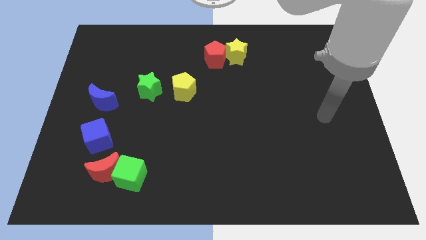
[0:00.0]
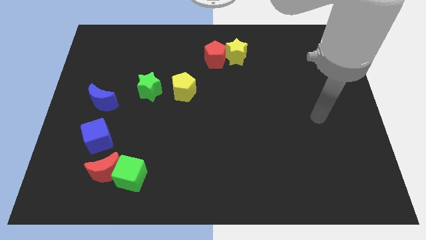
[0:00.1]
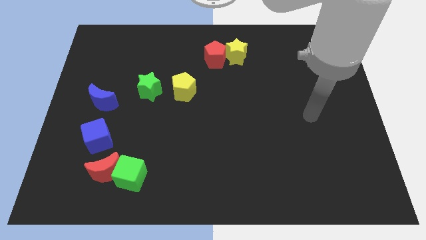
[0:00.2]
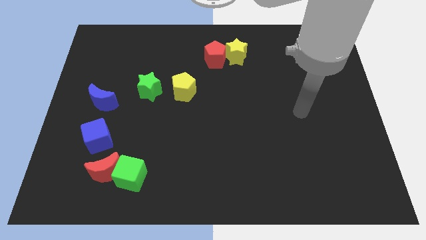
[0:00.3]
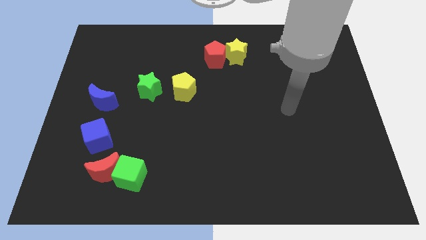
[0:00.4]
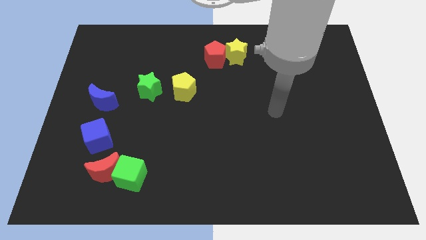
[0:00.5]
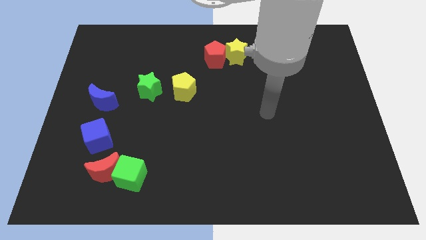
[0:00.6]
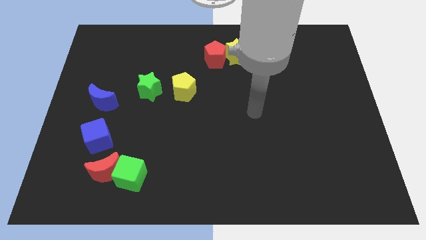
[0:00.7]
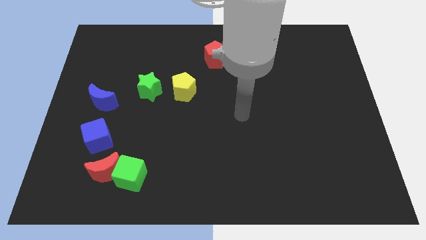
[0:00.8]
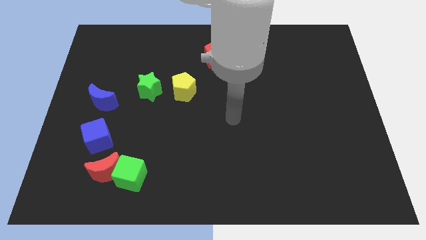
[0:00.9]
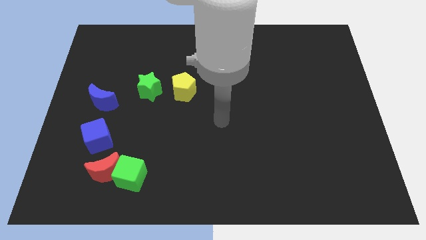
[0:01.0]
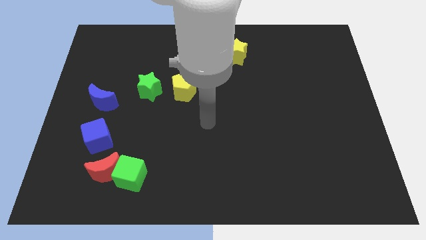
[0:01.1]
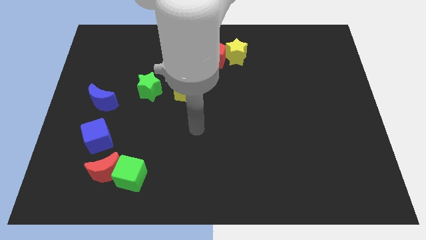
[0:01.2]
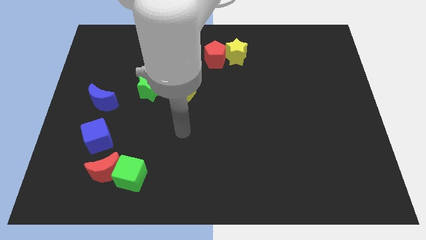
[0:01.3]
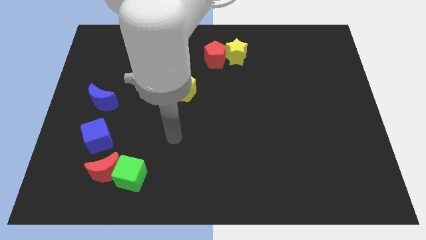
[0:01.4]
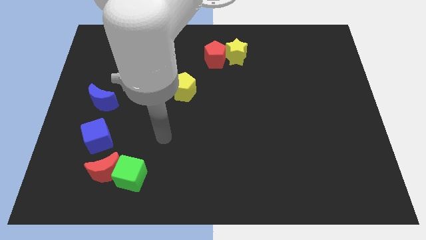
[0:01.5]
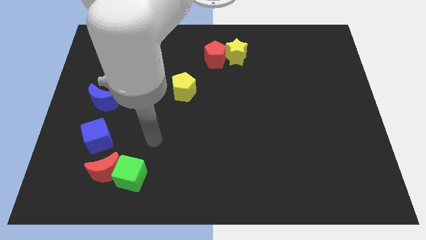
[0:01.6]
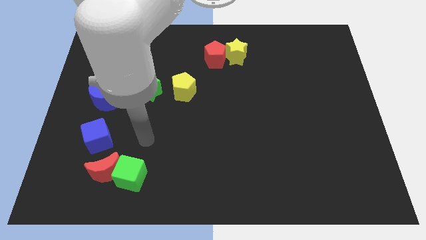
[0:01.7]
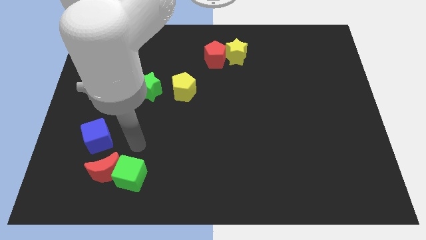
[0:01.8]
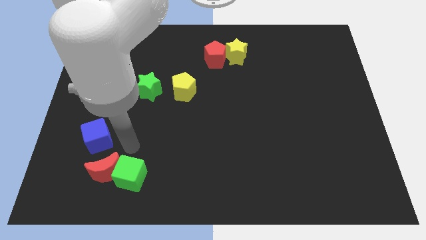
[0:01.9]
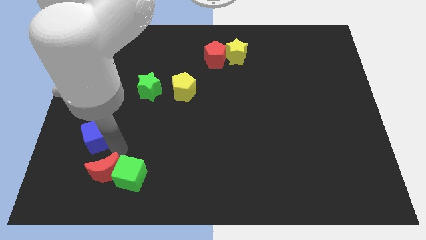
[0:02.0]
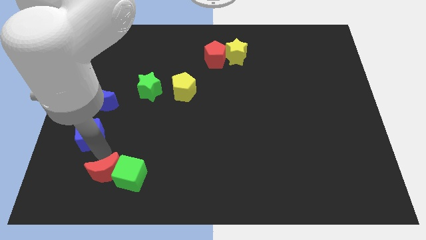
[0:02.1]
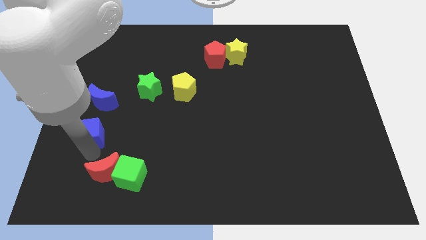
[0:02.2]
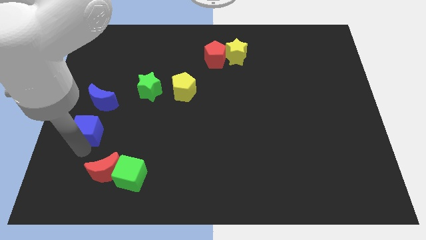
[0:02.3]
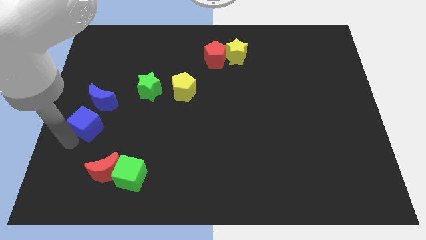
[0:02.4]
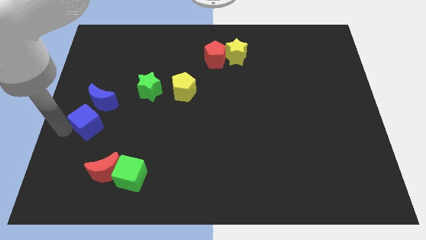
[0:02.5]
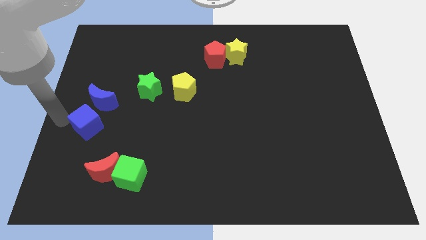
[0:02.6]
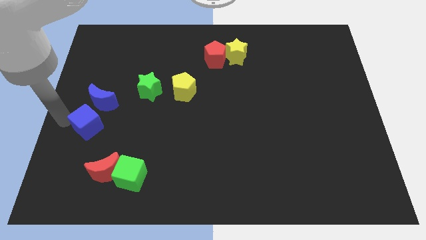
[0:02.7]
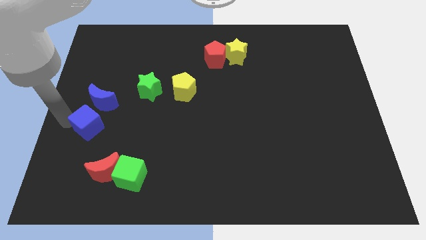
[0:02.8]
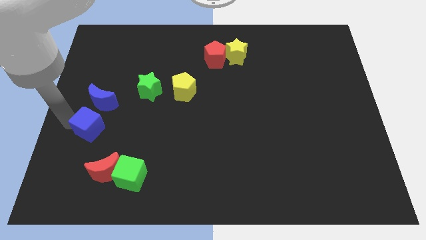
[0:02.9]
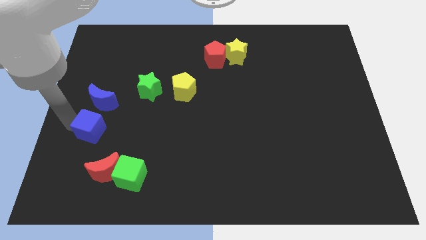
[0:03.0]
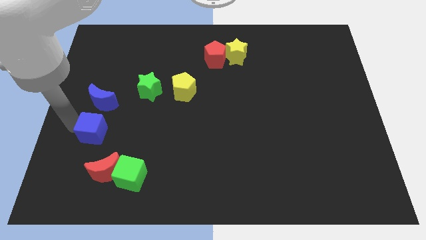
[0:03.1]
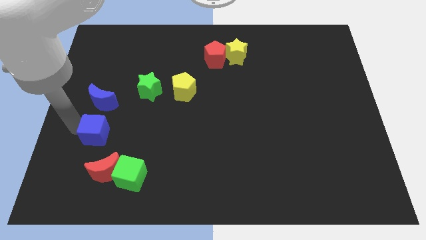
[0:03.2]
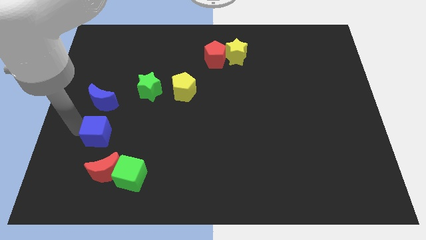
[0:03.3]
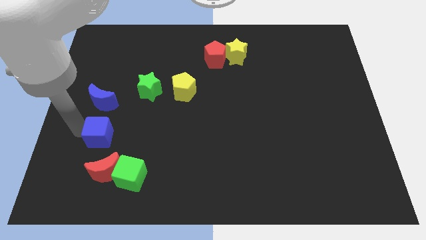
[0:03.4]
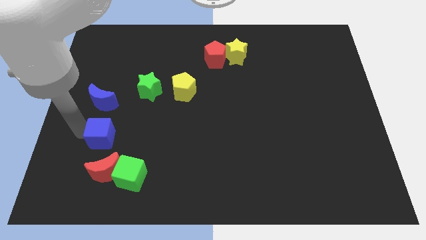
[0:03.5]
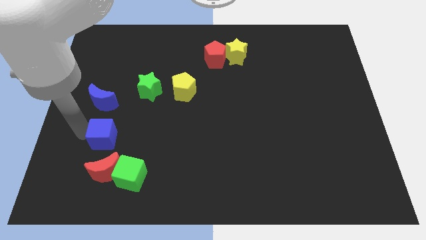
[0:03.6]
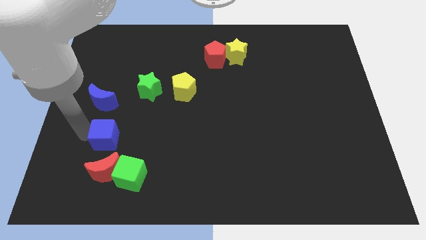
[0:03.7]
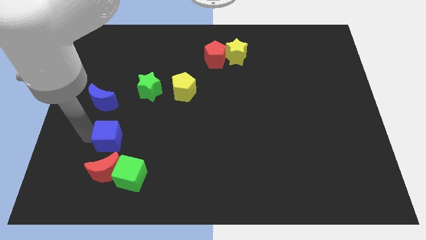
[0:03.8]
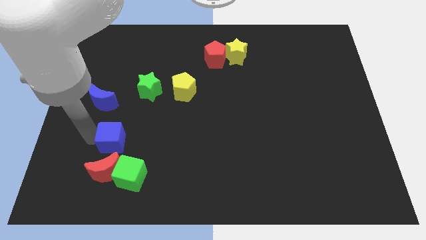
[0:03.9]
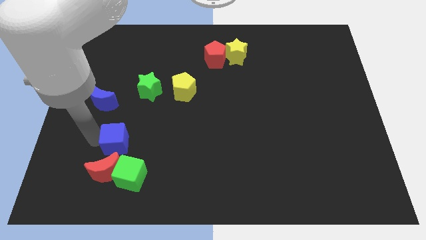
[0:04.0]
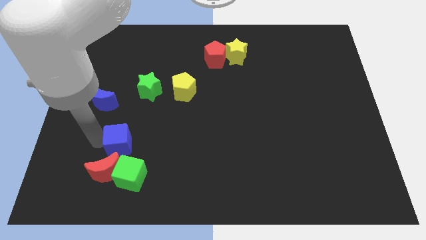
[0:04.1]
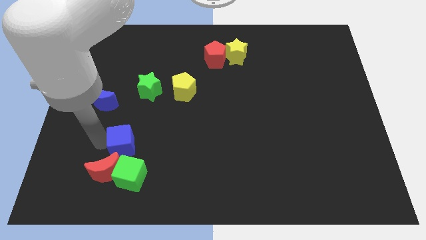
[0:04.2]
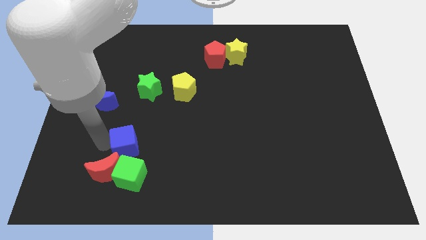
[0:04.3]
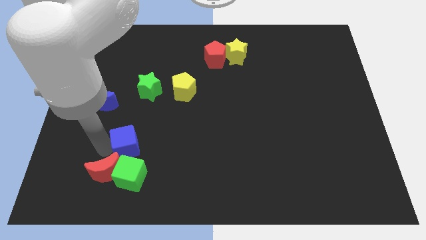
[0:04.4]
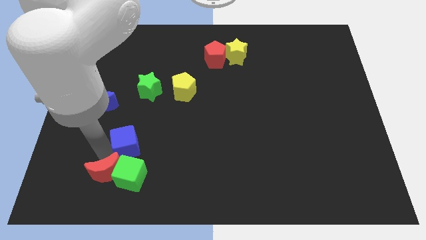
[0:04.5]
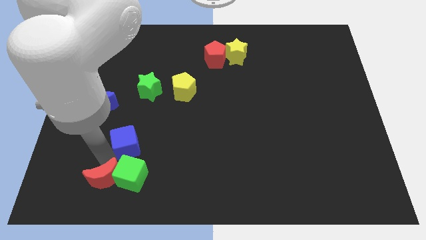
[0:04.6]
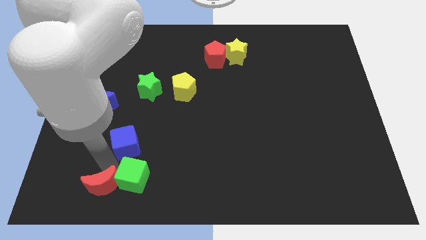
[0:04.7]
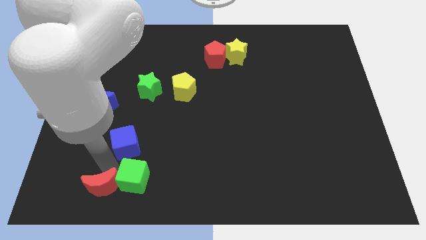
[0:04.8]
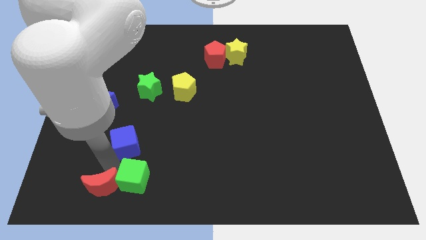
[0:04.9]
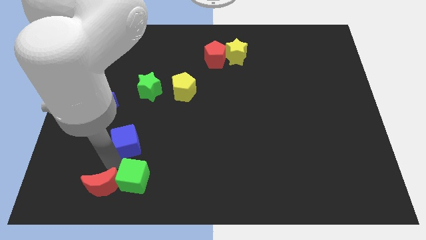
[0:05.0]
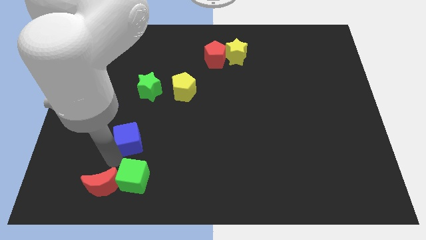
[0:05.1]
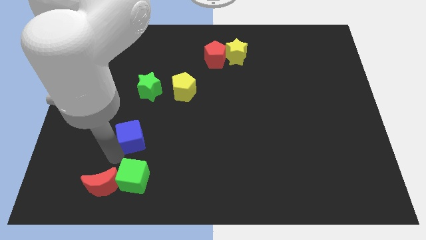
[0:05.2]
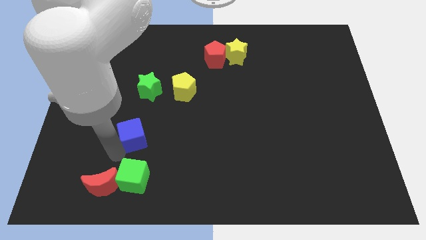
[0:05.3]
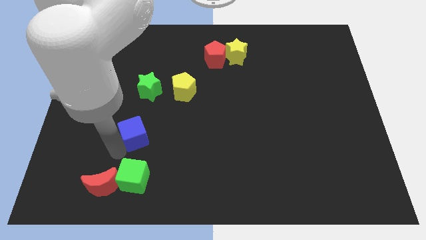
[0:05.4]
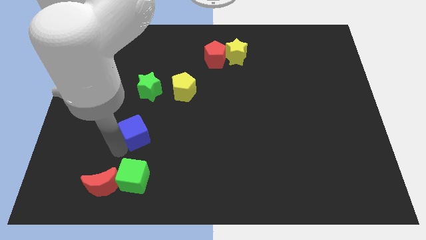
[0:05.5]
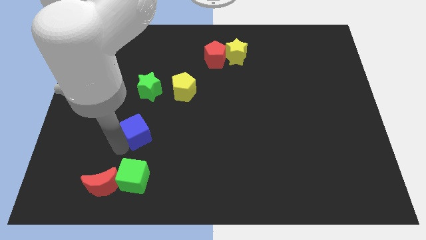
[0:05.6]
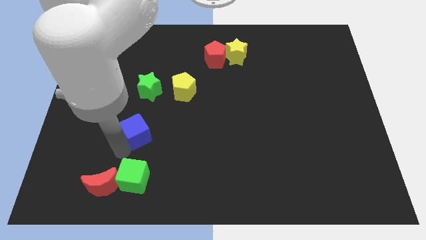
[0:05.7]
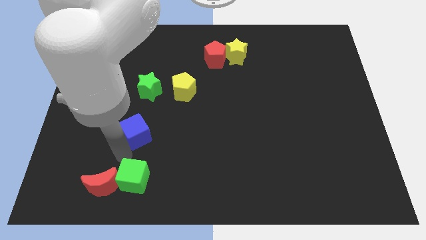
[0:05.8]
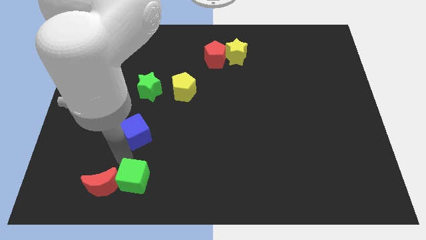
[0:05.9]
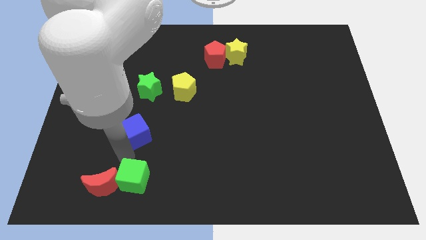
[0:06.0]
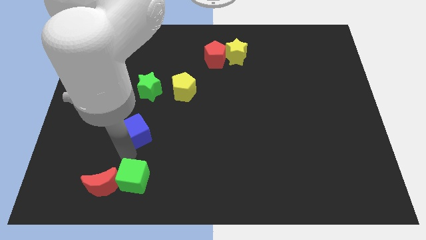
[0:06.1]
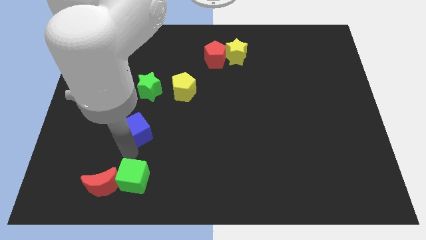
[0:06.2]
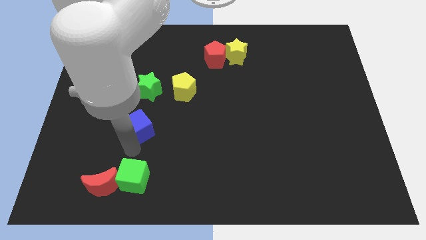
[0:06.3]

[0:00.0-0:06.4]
slightly slide the blue cube upwards and to the right diagonally

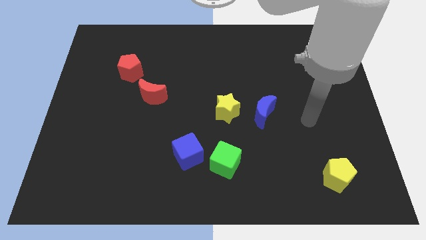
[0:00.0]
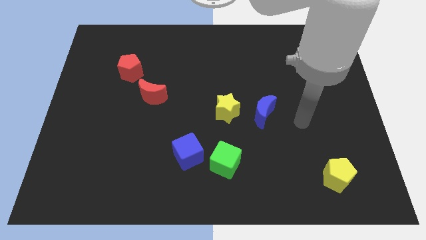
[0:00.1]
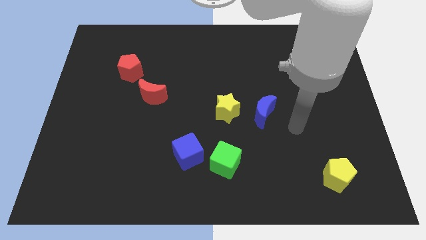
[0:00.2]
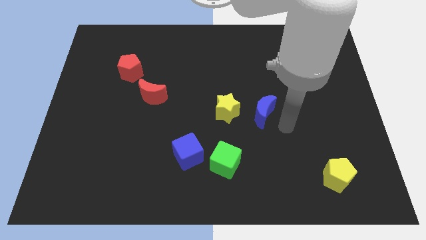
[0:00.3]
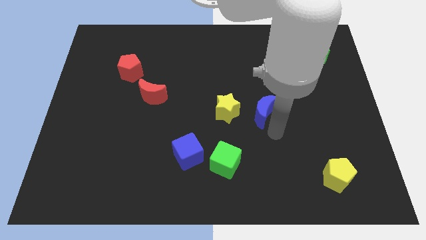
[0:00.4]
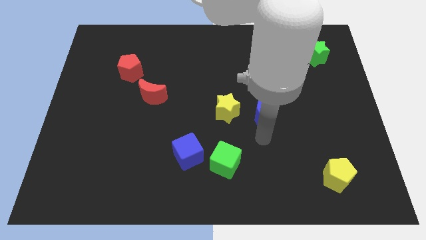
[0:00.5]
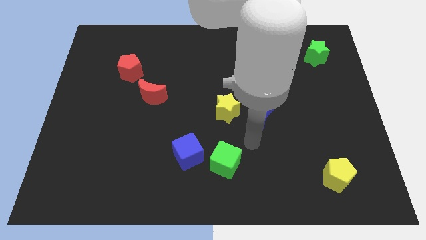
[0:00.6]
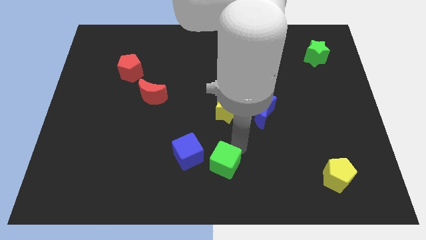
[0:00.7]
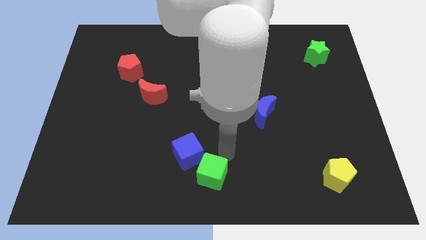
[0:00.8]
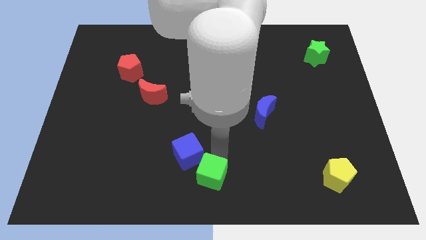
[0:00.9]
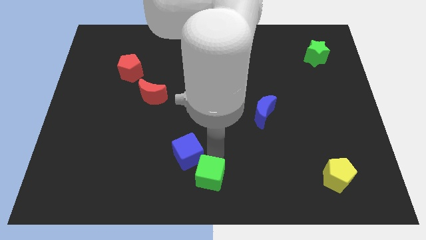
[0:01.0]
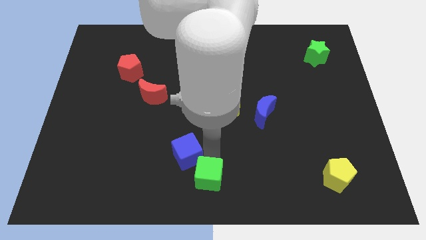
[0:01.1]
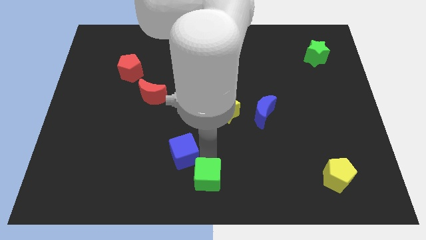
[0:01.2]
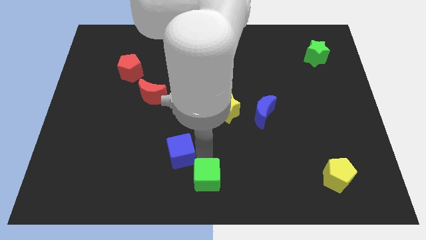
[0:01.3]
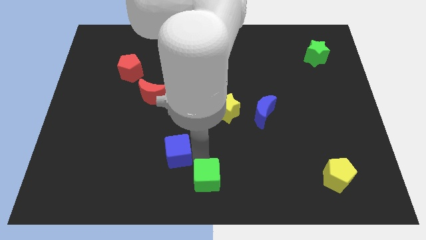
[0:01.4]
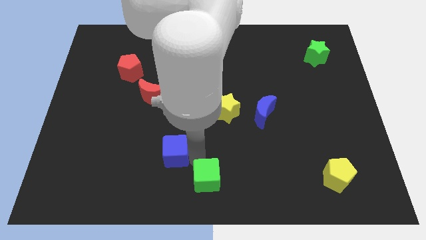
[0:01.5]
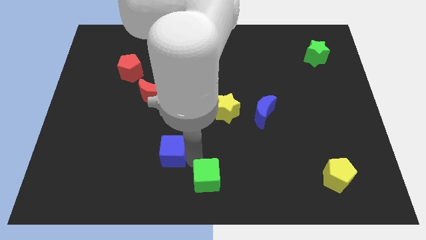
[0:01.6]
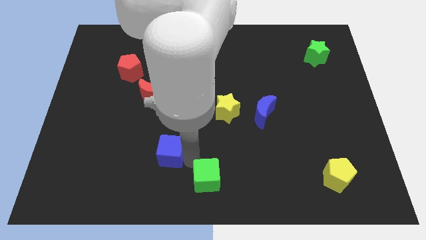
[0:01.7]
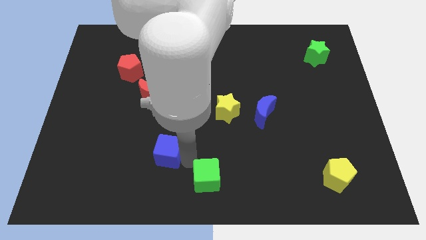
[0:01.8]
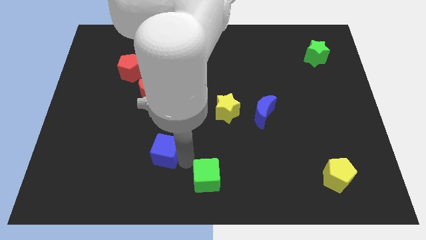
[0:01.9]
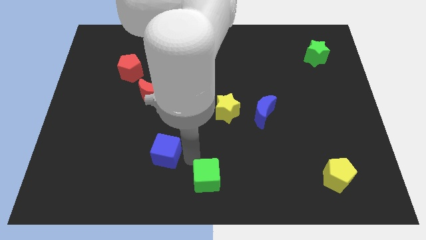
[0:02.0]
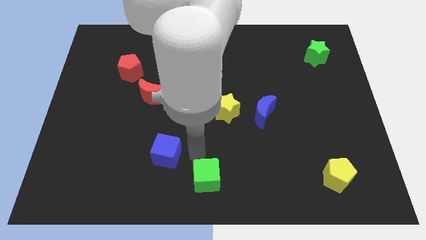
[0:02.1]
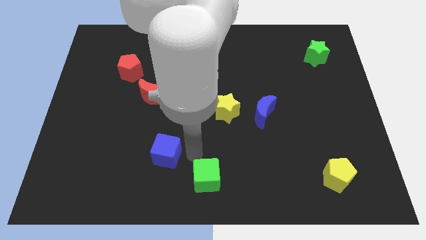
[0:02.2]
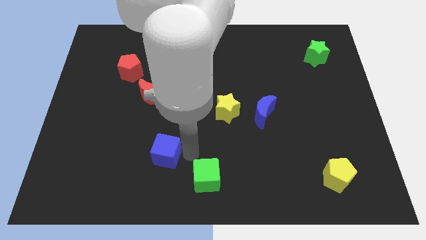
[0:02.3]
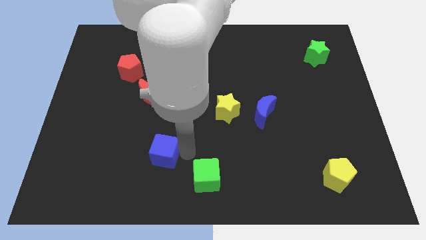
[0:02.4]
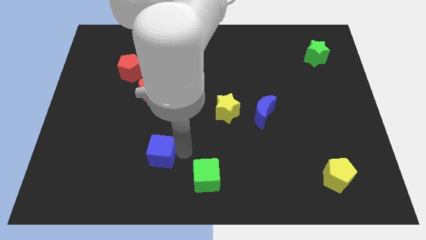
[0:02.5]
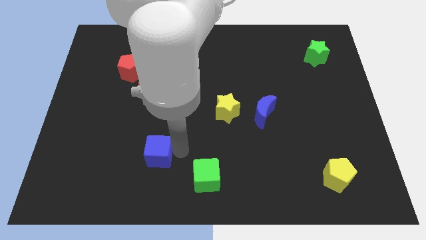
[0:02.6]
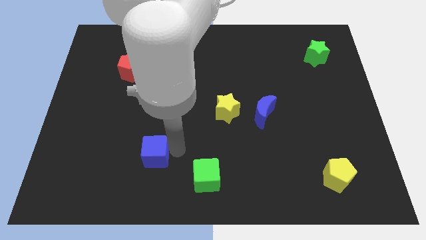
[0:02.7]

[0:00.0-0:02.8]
slide the blue cube to the left somewhat
